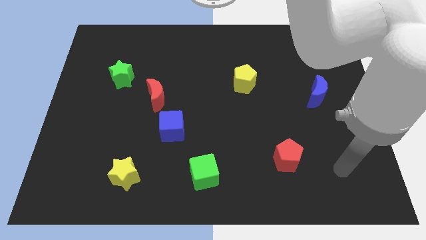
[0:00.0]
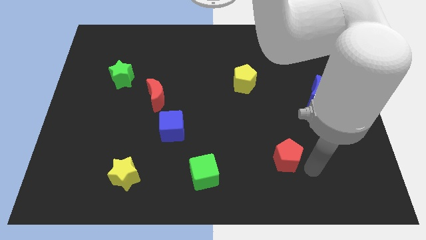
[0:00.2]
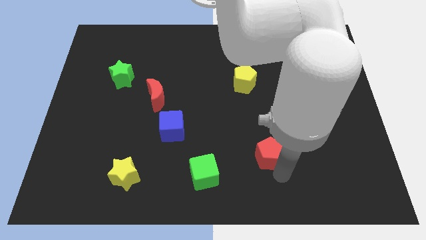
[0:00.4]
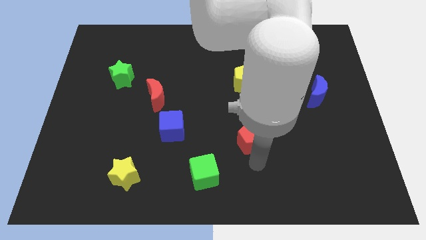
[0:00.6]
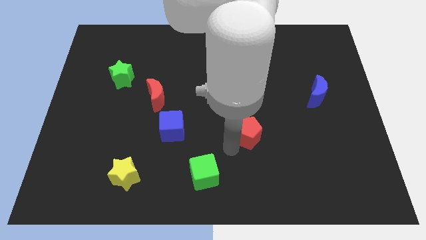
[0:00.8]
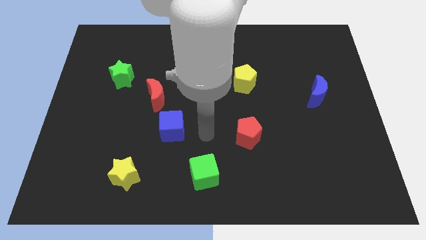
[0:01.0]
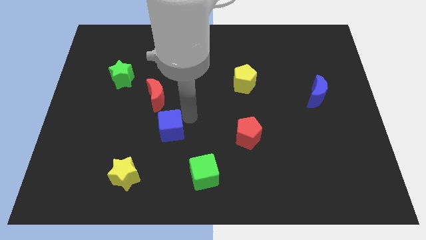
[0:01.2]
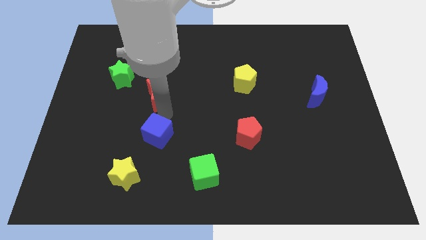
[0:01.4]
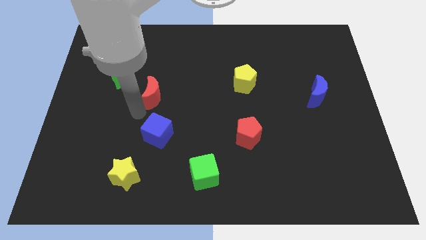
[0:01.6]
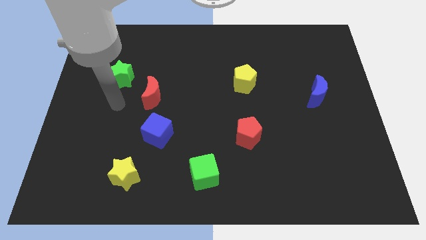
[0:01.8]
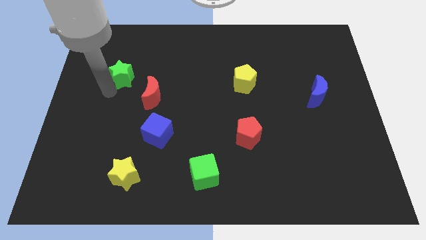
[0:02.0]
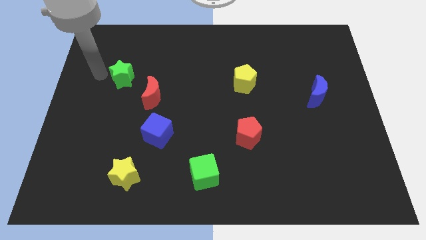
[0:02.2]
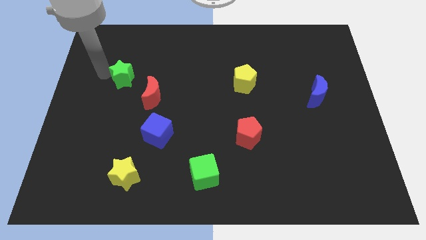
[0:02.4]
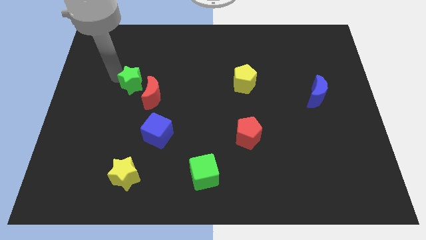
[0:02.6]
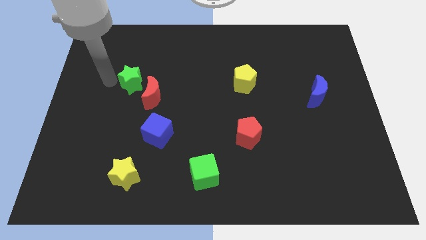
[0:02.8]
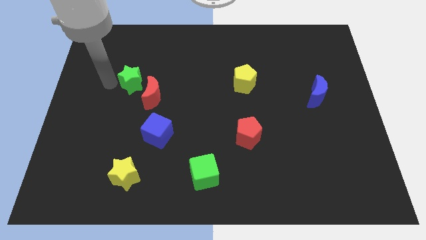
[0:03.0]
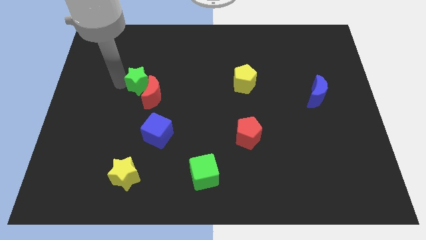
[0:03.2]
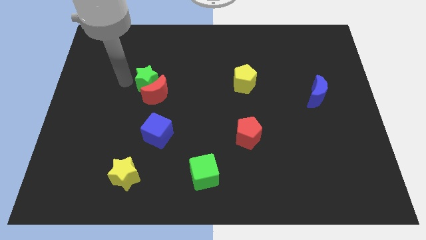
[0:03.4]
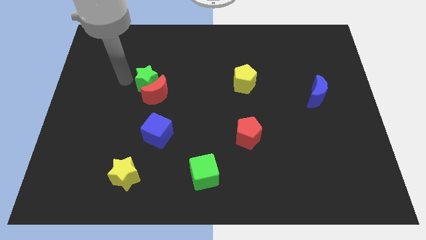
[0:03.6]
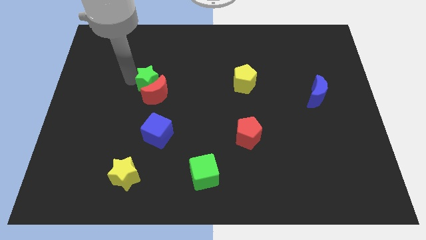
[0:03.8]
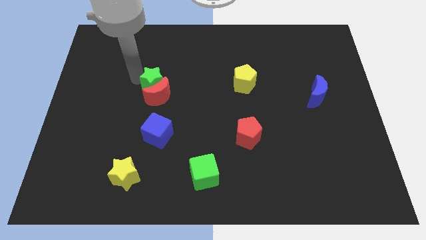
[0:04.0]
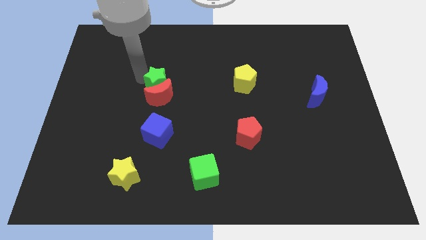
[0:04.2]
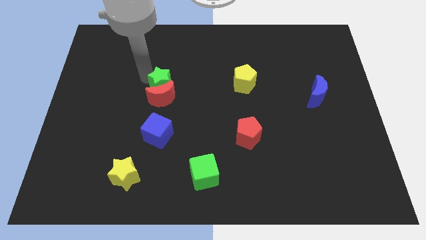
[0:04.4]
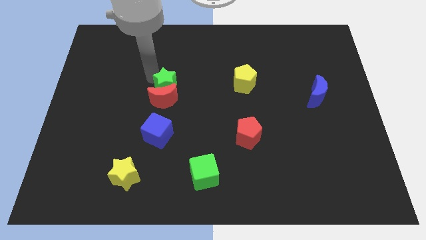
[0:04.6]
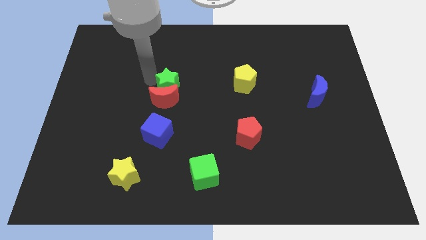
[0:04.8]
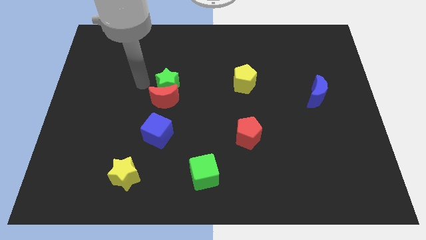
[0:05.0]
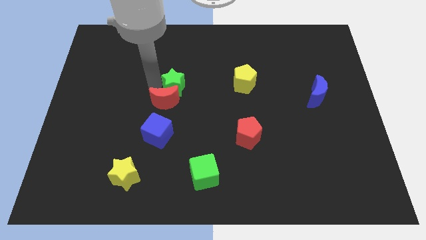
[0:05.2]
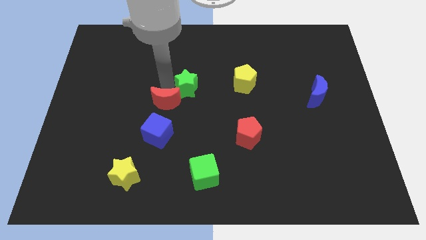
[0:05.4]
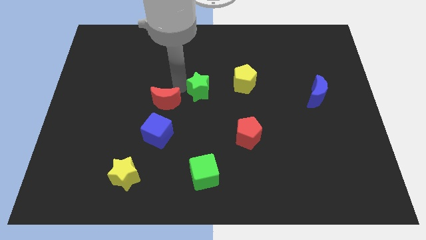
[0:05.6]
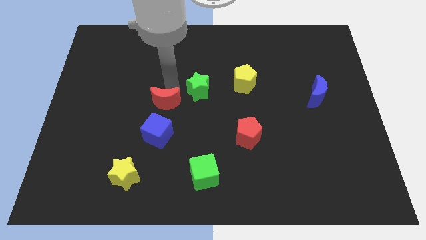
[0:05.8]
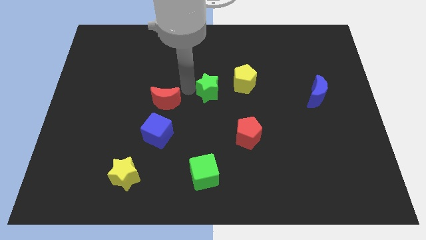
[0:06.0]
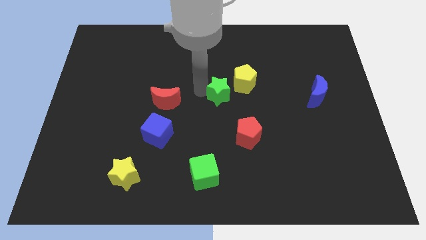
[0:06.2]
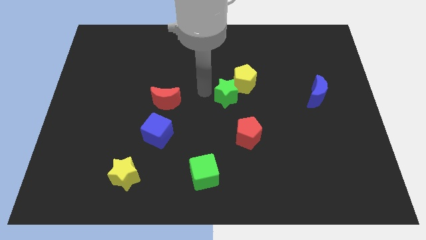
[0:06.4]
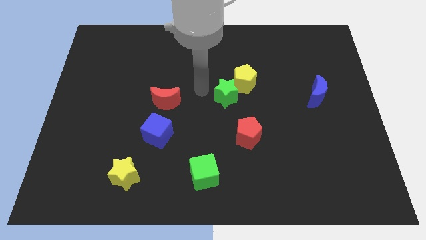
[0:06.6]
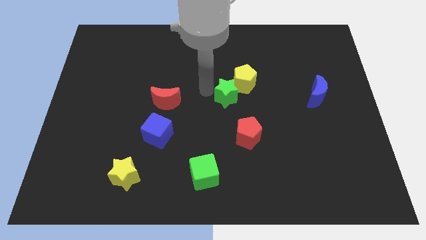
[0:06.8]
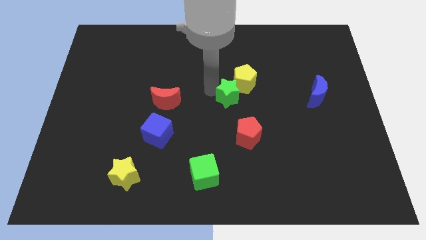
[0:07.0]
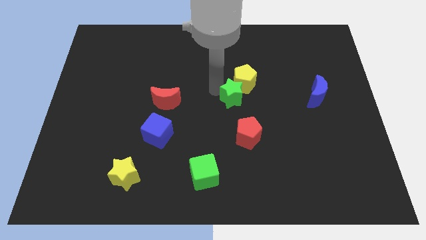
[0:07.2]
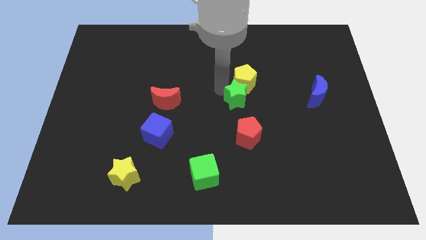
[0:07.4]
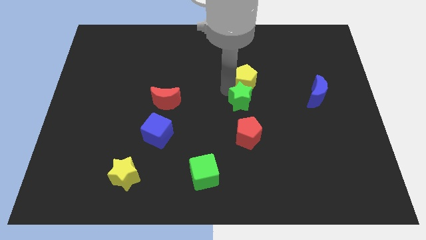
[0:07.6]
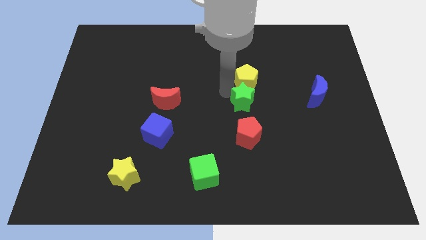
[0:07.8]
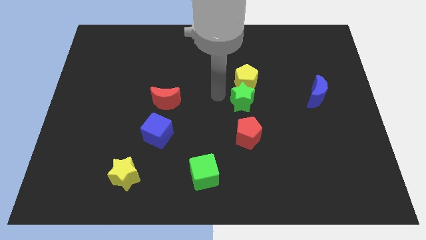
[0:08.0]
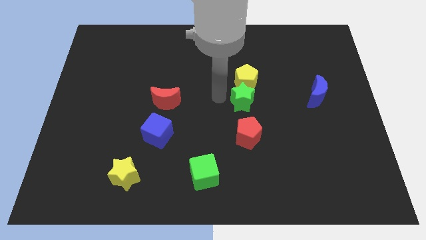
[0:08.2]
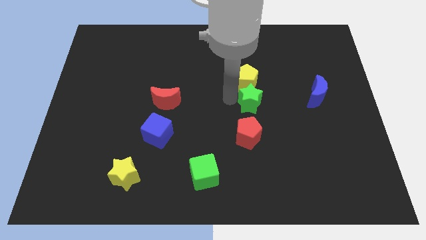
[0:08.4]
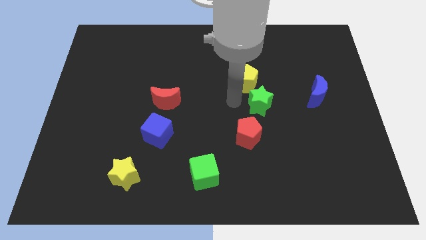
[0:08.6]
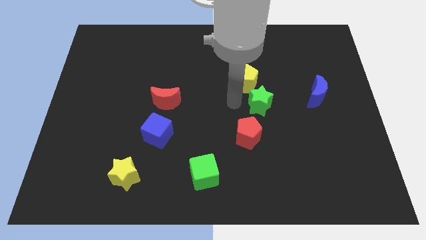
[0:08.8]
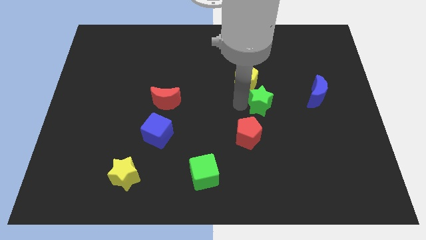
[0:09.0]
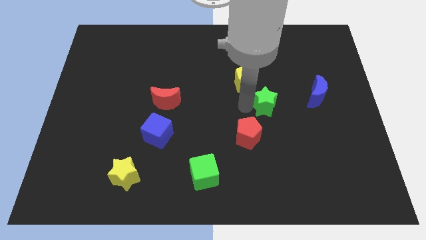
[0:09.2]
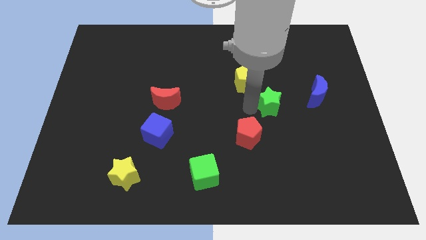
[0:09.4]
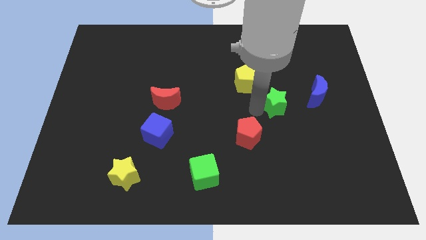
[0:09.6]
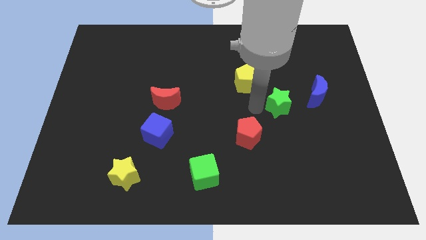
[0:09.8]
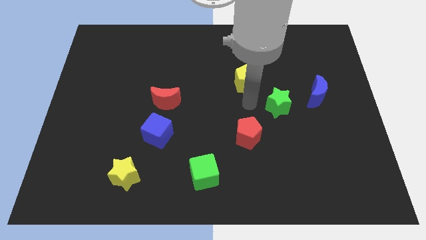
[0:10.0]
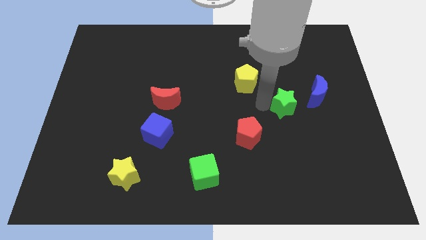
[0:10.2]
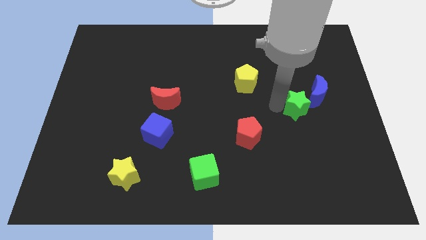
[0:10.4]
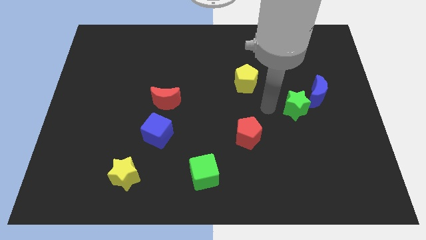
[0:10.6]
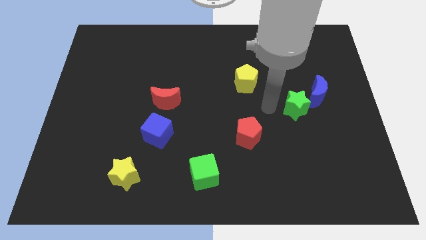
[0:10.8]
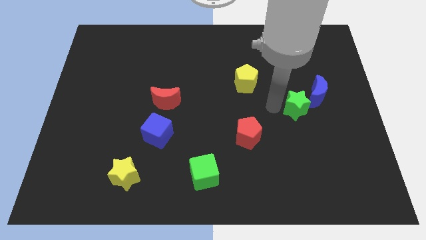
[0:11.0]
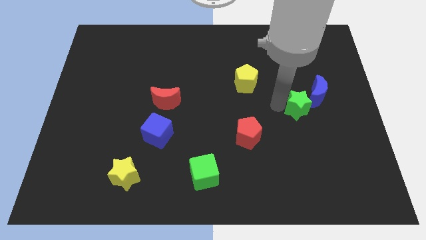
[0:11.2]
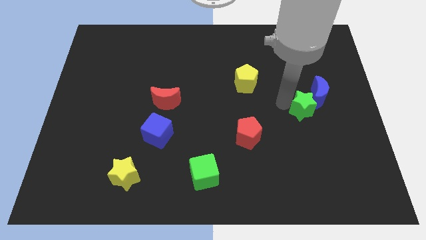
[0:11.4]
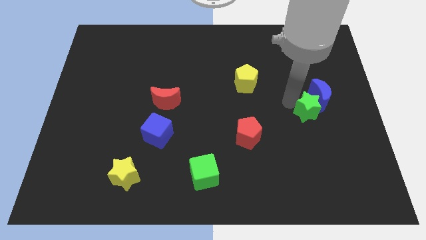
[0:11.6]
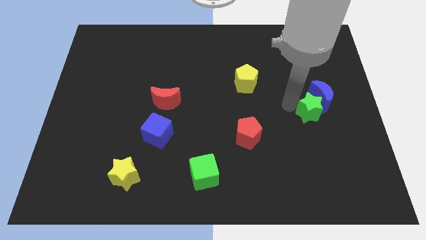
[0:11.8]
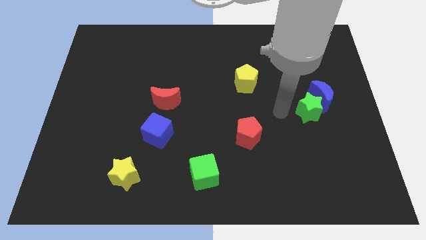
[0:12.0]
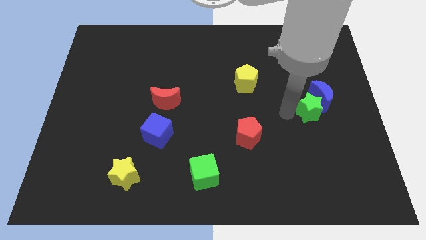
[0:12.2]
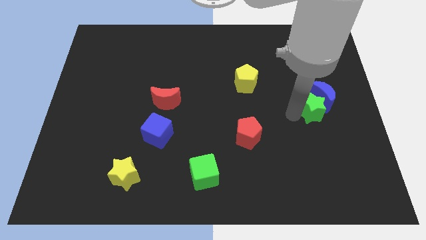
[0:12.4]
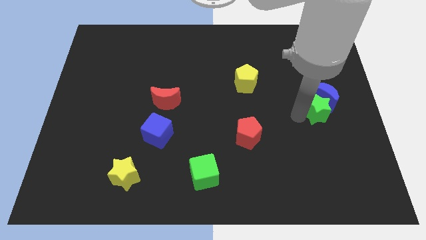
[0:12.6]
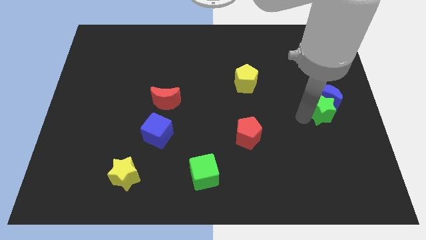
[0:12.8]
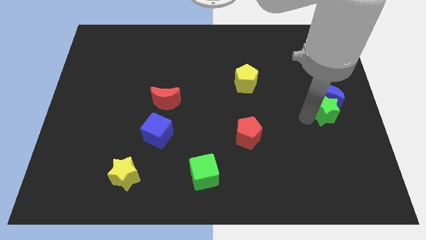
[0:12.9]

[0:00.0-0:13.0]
put the green star to the right side
